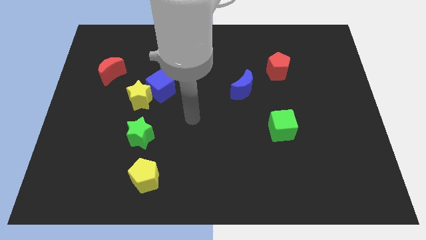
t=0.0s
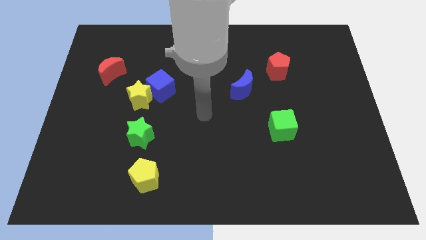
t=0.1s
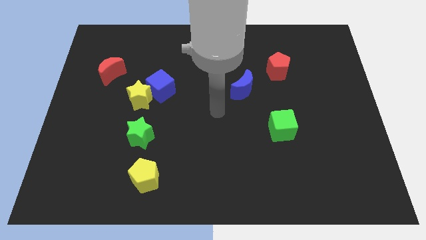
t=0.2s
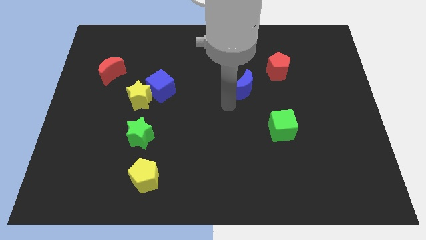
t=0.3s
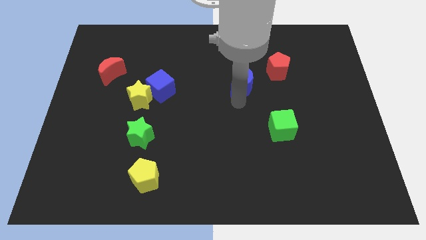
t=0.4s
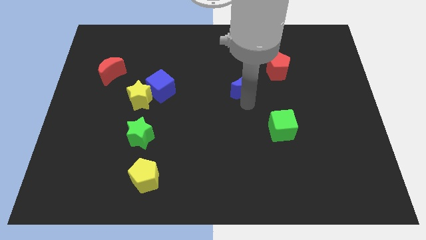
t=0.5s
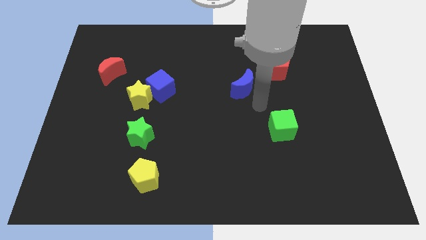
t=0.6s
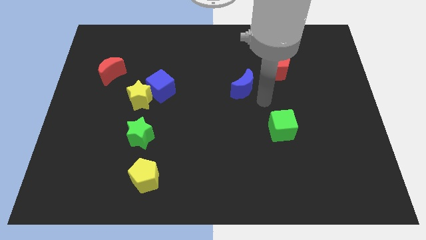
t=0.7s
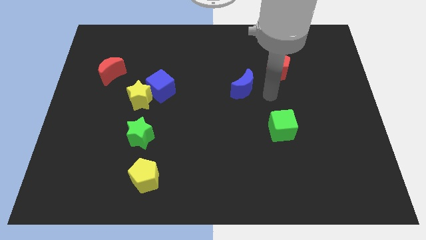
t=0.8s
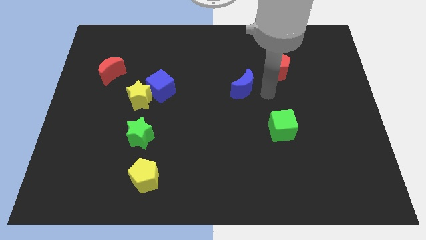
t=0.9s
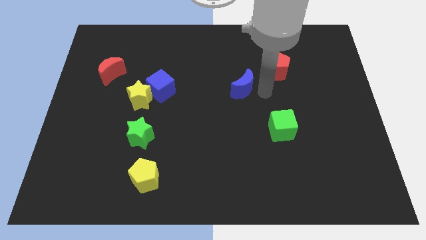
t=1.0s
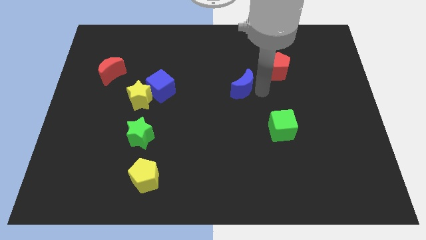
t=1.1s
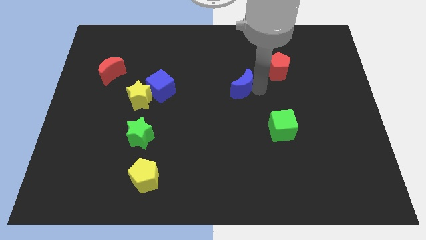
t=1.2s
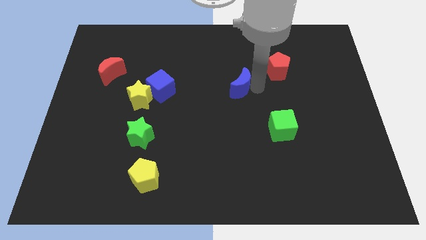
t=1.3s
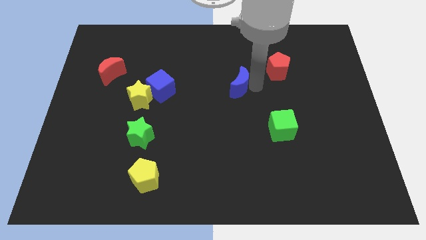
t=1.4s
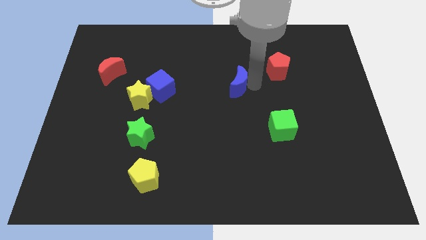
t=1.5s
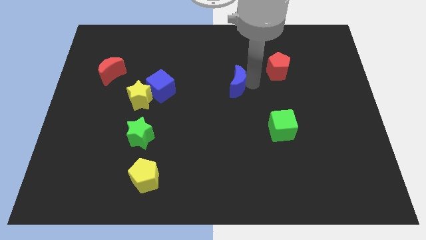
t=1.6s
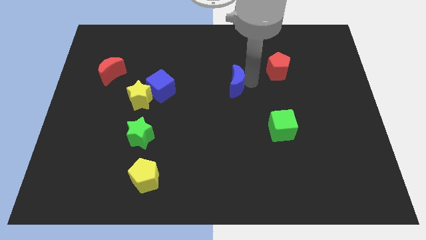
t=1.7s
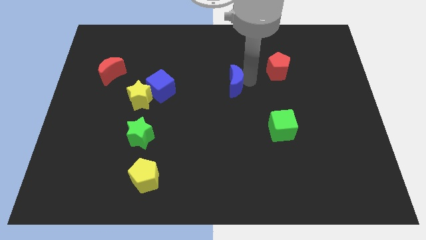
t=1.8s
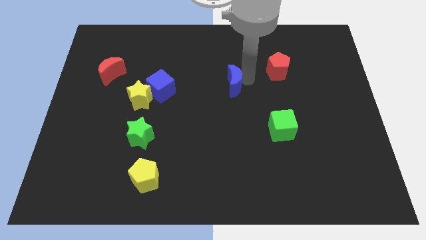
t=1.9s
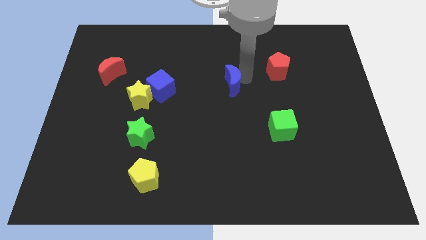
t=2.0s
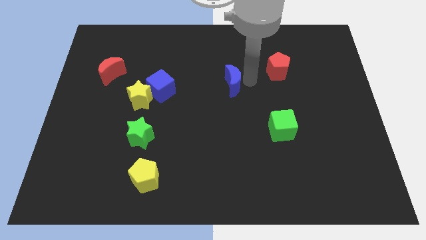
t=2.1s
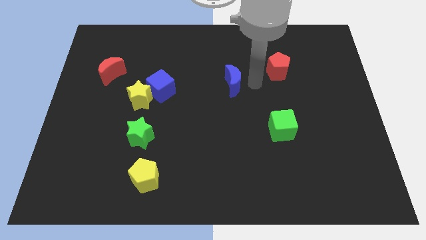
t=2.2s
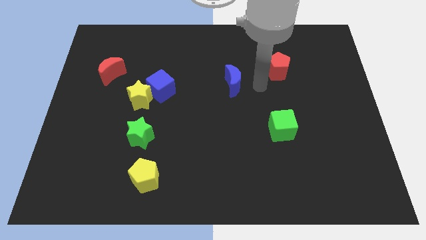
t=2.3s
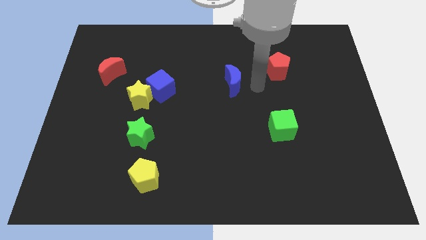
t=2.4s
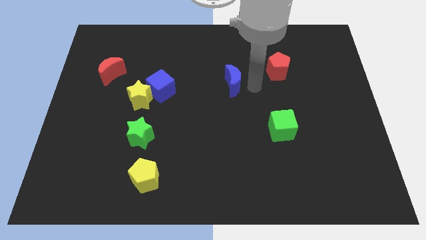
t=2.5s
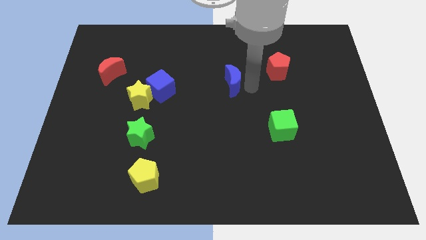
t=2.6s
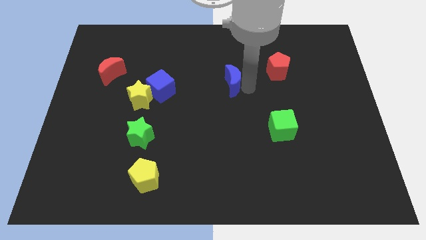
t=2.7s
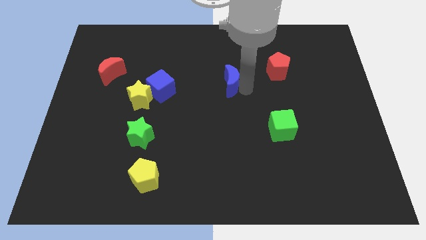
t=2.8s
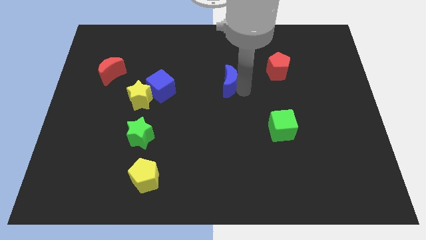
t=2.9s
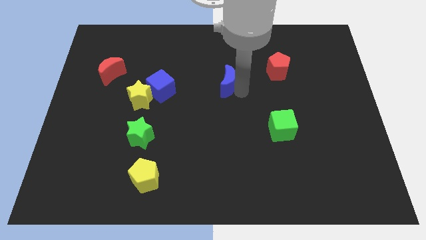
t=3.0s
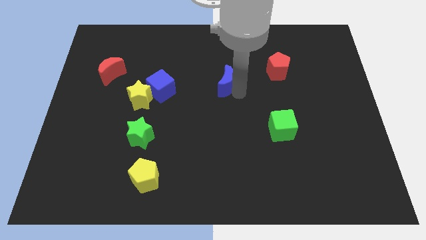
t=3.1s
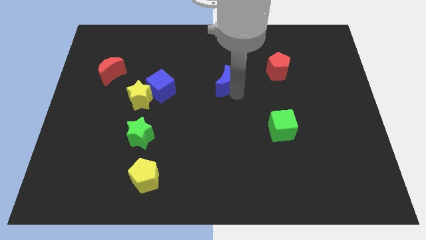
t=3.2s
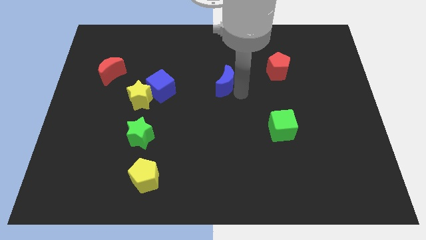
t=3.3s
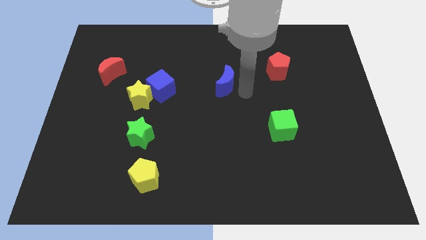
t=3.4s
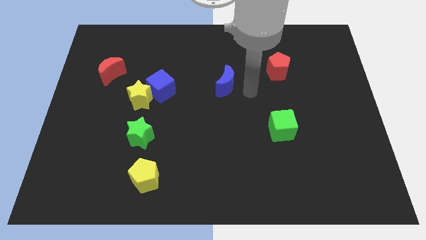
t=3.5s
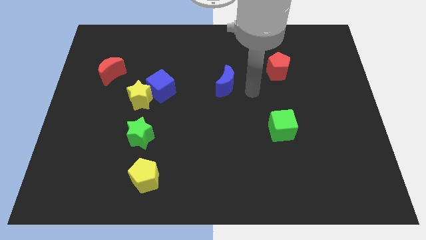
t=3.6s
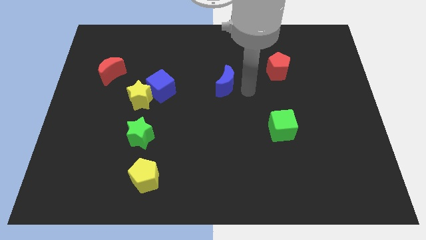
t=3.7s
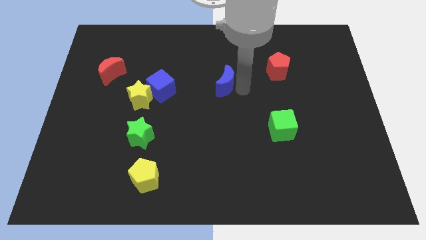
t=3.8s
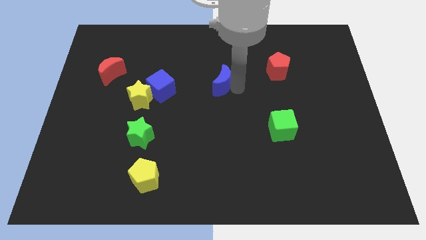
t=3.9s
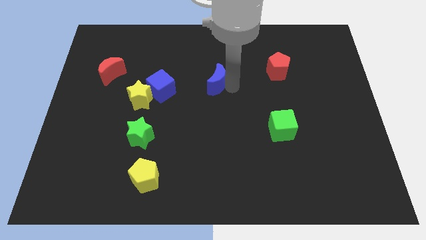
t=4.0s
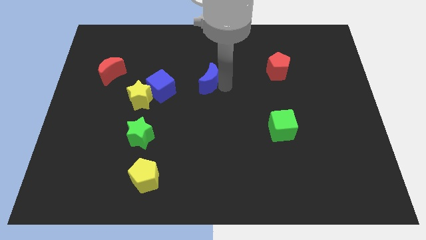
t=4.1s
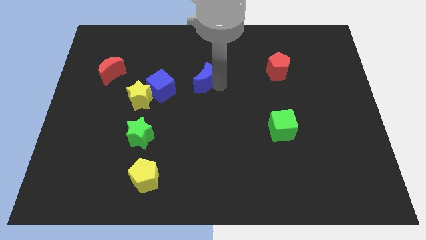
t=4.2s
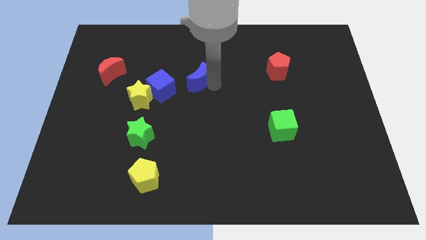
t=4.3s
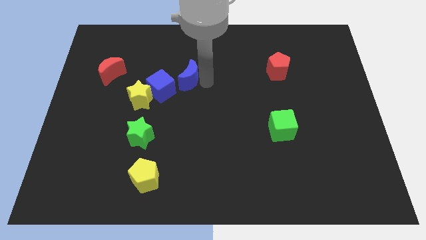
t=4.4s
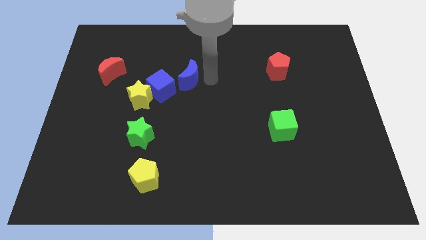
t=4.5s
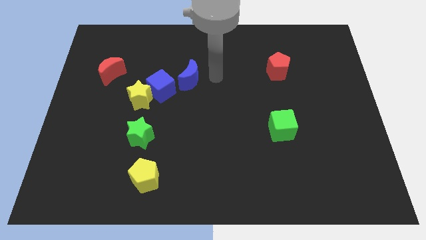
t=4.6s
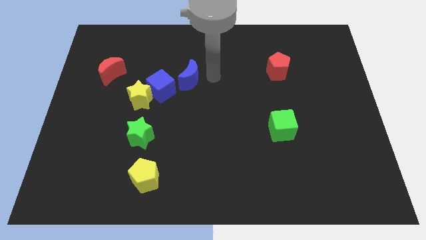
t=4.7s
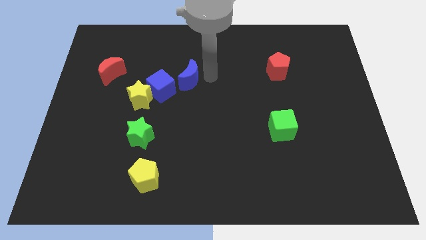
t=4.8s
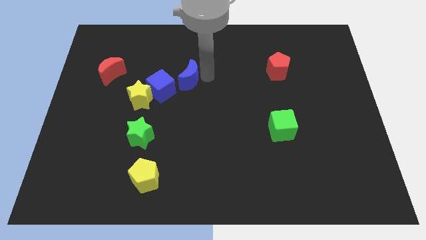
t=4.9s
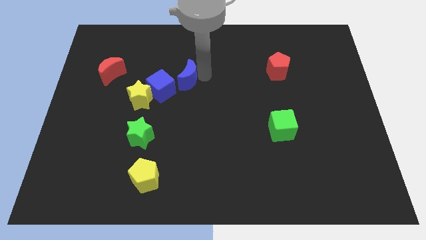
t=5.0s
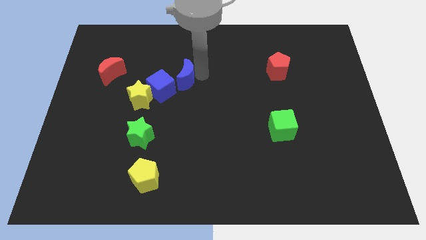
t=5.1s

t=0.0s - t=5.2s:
put the blue moon to the top right side of the yellow star

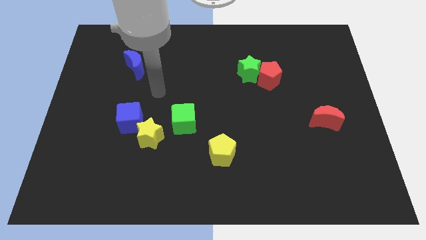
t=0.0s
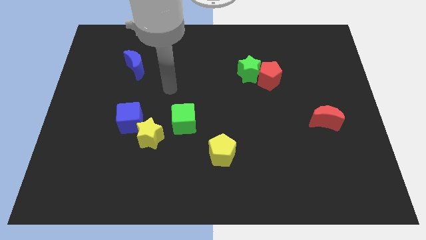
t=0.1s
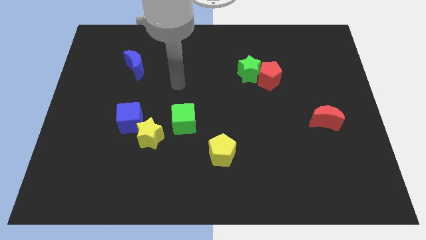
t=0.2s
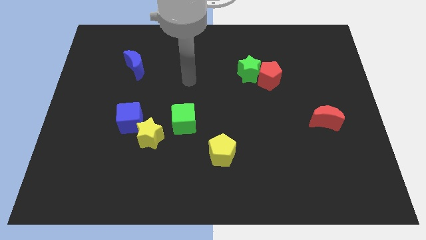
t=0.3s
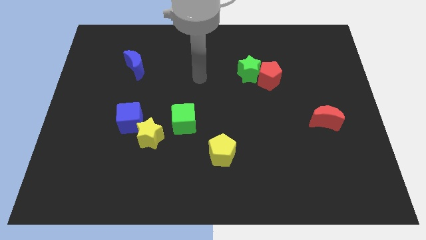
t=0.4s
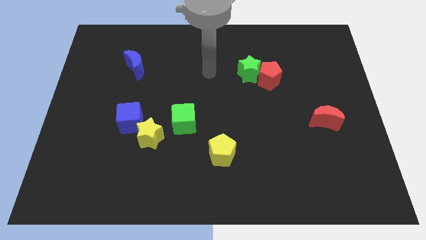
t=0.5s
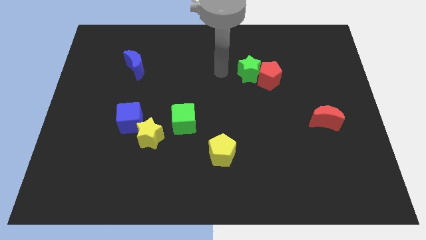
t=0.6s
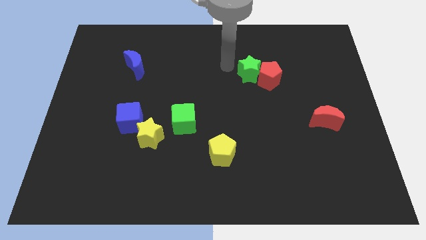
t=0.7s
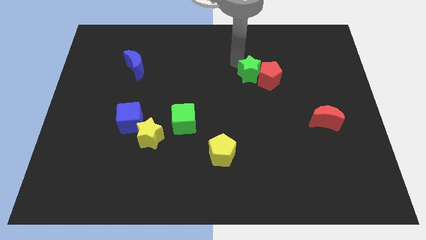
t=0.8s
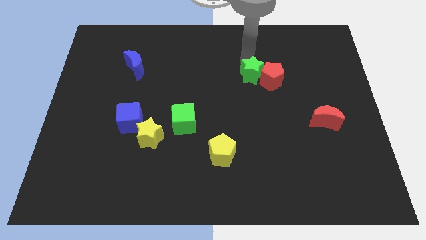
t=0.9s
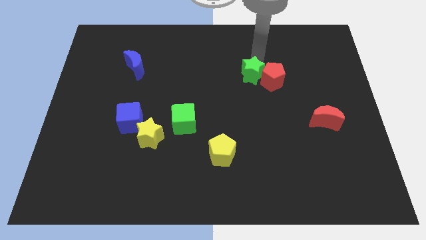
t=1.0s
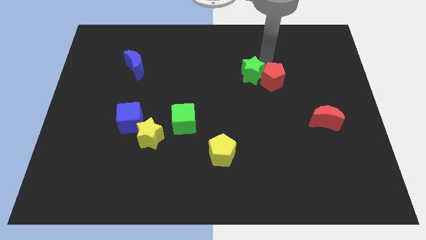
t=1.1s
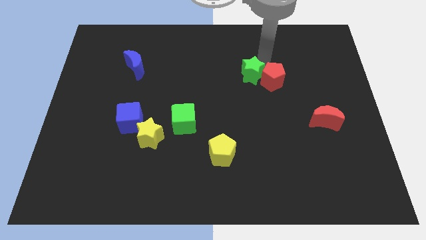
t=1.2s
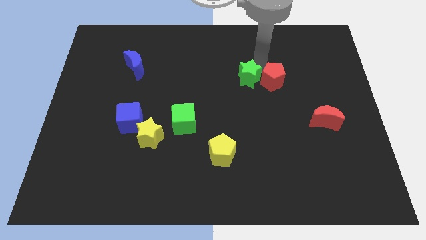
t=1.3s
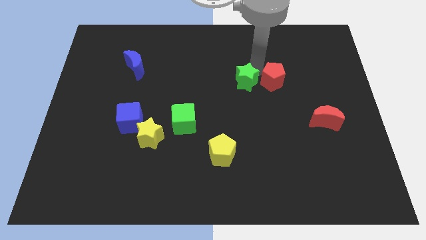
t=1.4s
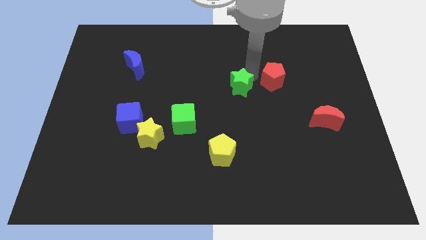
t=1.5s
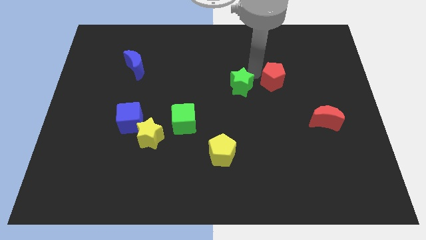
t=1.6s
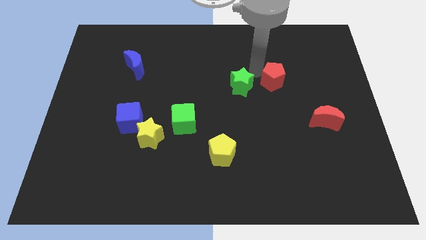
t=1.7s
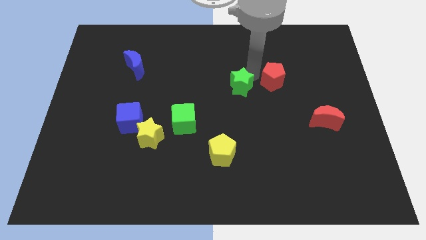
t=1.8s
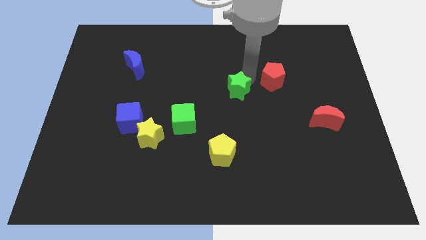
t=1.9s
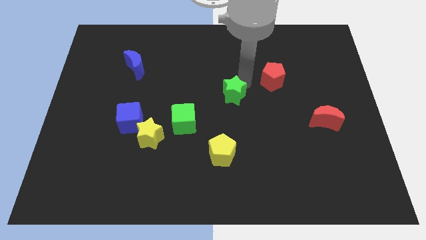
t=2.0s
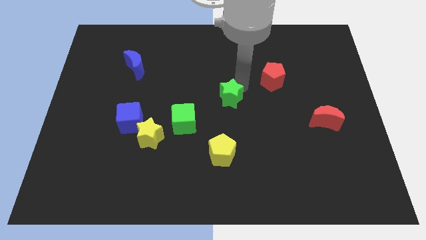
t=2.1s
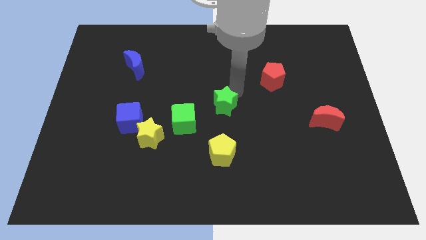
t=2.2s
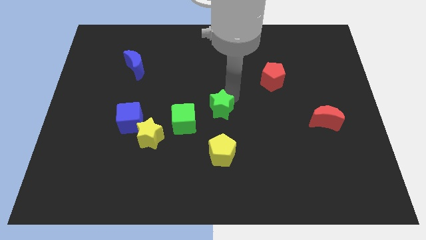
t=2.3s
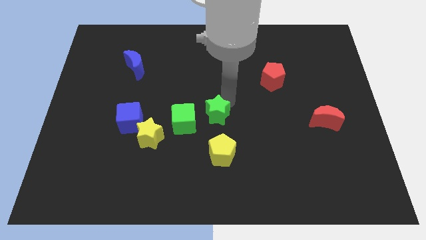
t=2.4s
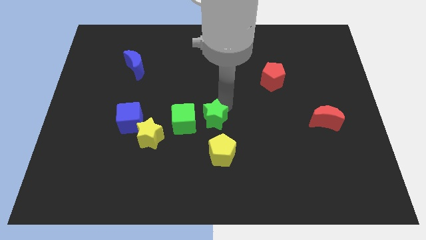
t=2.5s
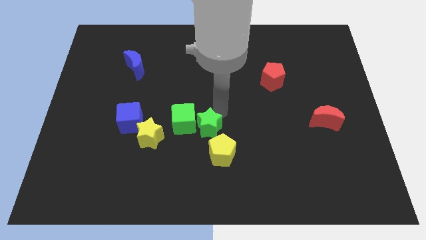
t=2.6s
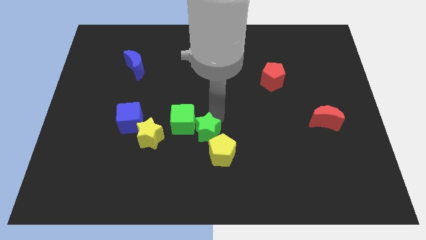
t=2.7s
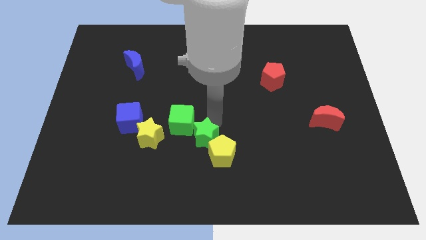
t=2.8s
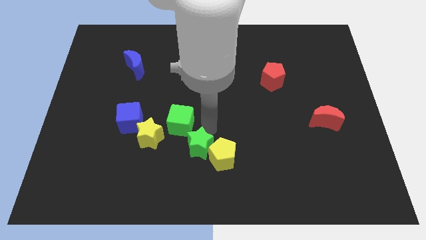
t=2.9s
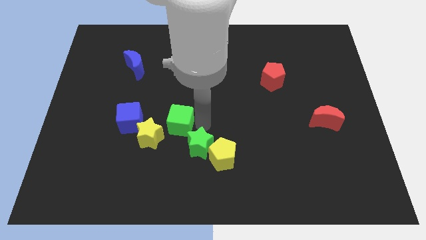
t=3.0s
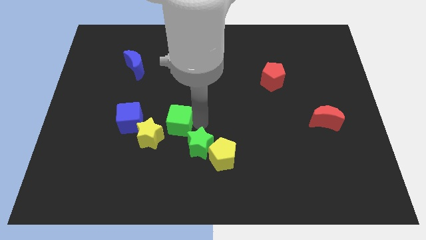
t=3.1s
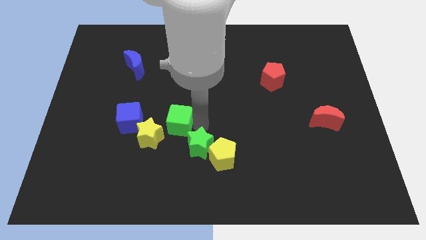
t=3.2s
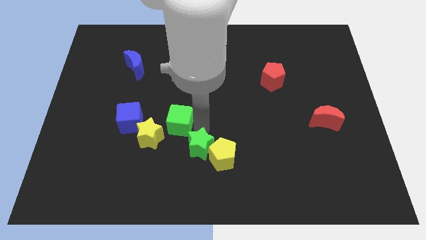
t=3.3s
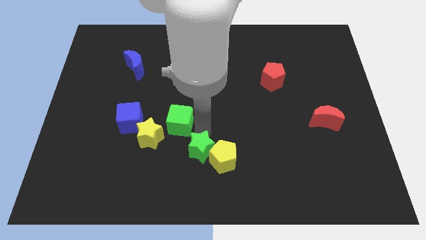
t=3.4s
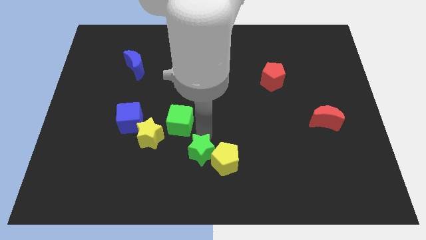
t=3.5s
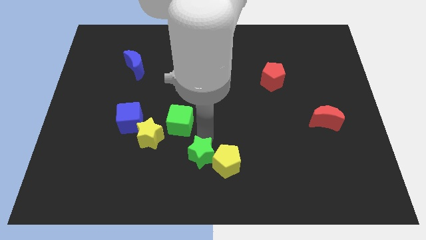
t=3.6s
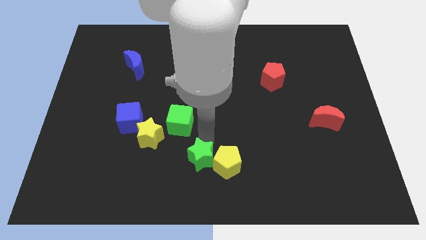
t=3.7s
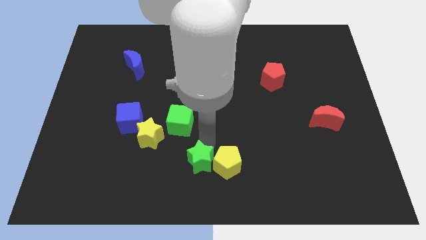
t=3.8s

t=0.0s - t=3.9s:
push the green star to the bottom left side of the yellow pentagon
